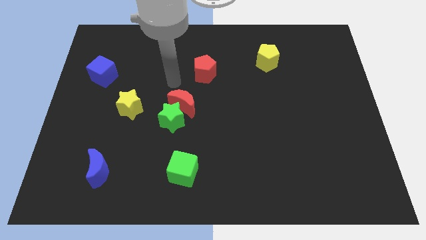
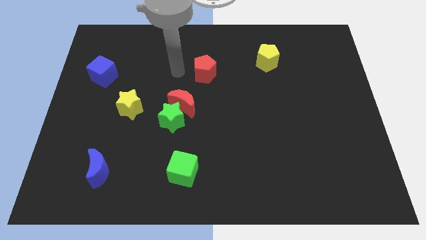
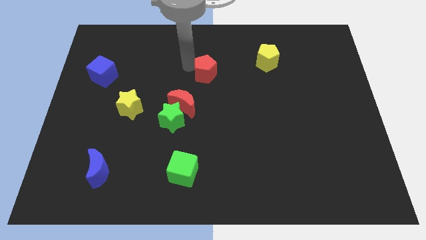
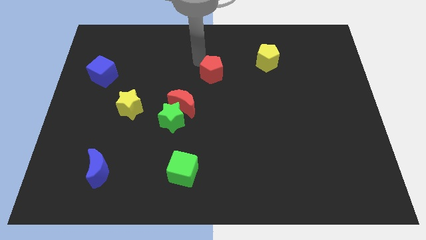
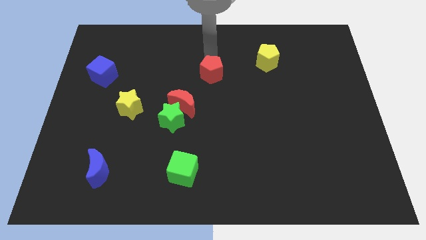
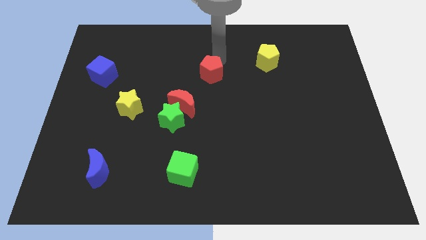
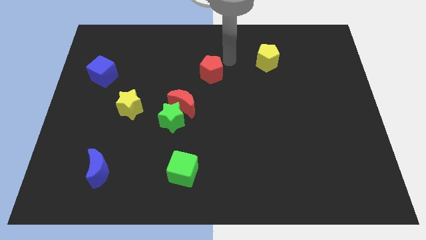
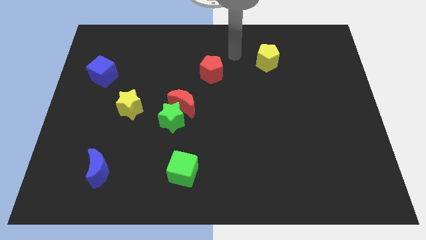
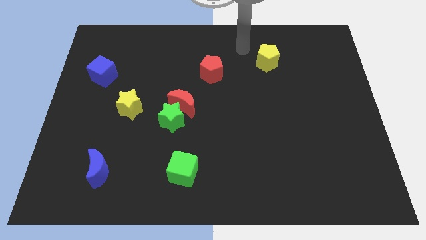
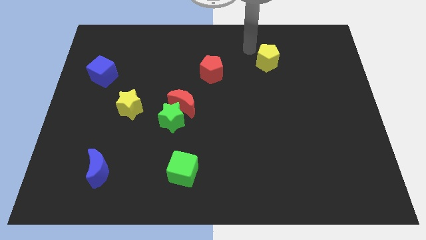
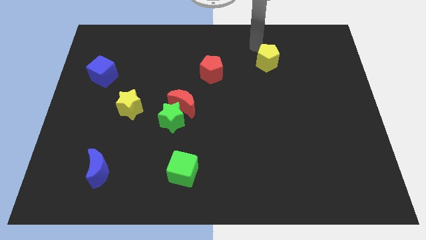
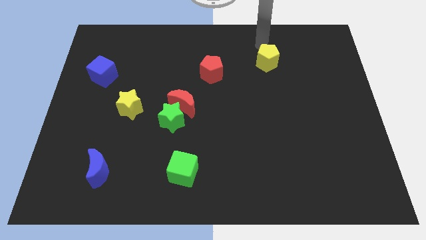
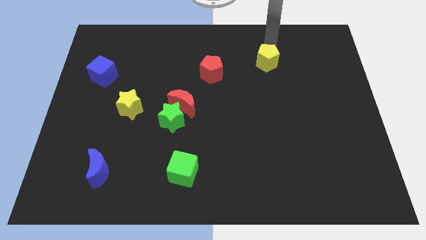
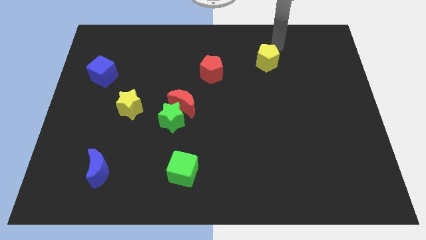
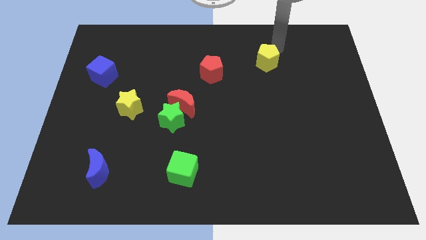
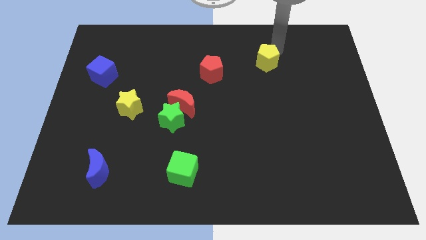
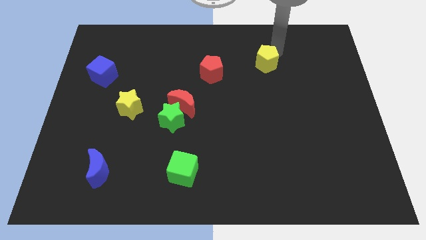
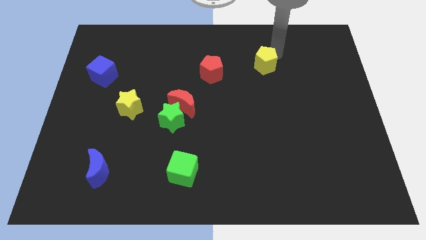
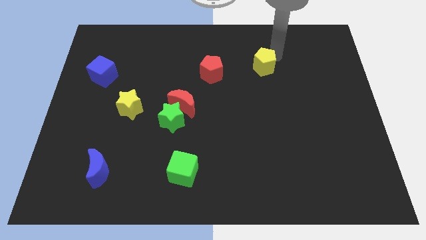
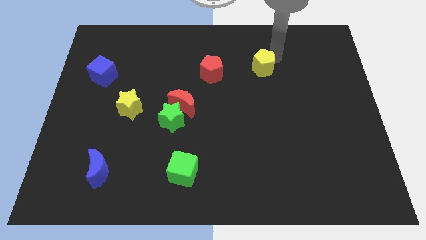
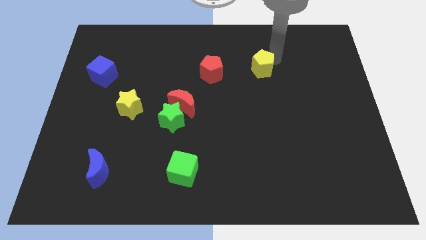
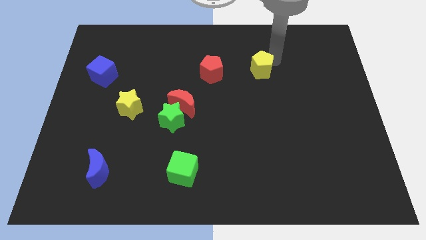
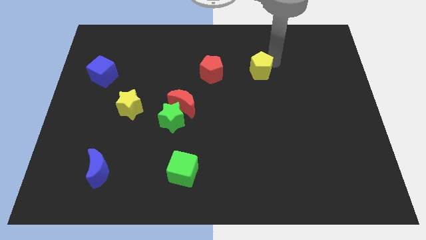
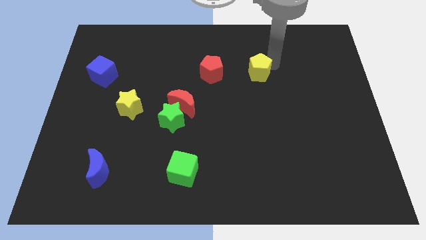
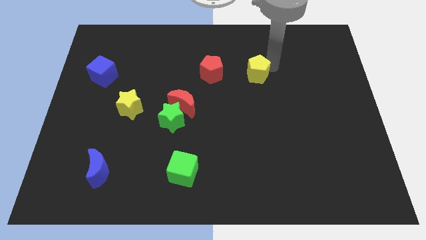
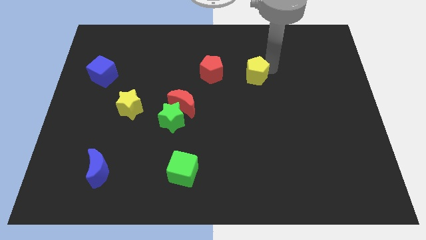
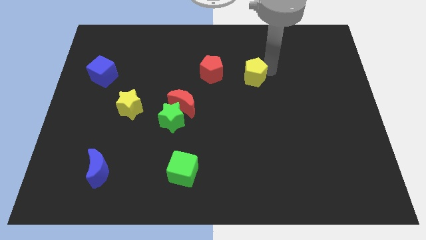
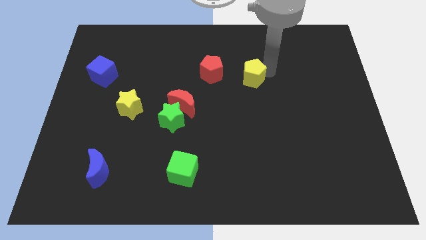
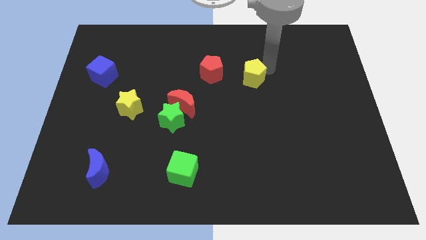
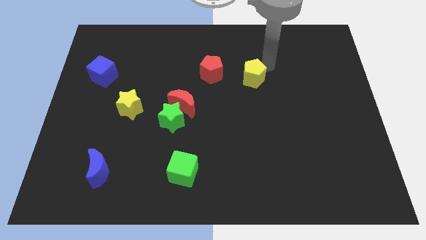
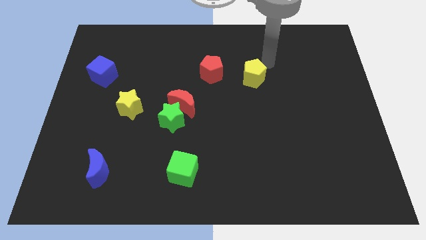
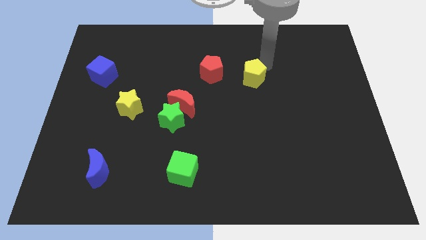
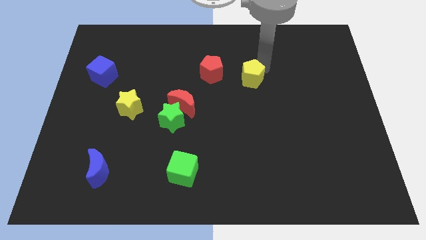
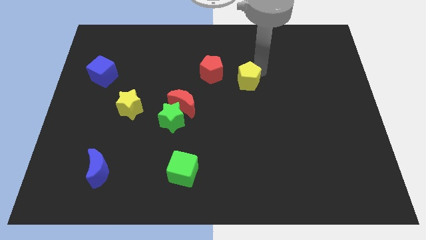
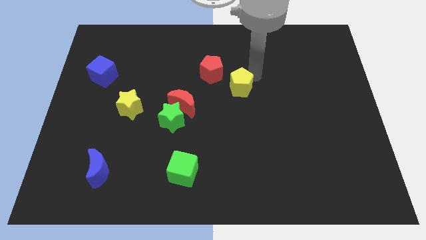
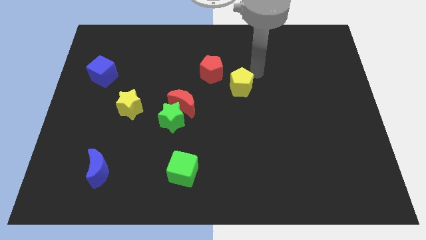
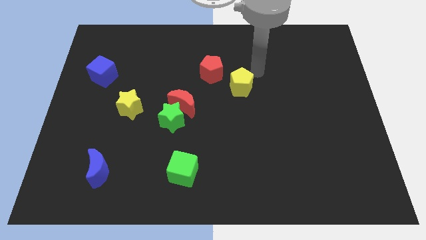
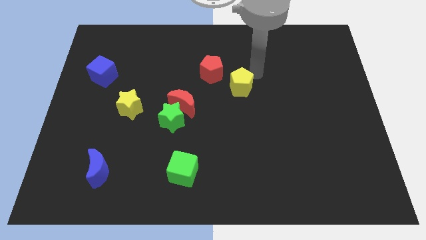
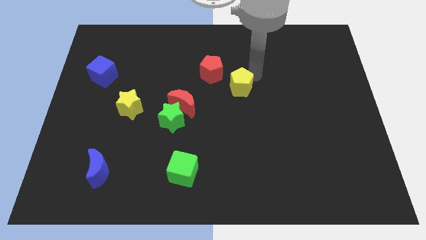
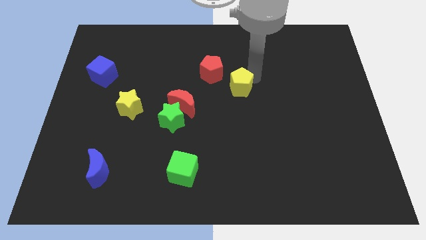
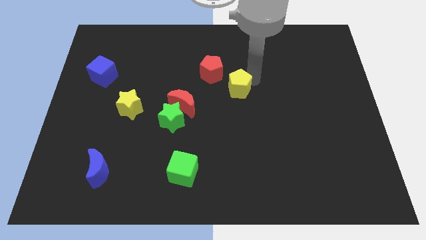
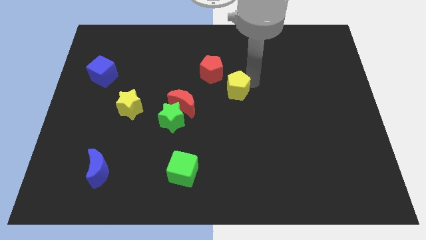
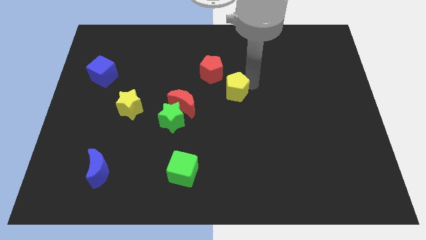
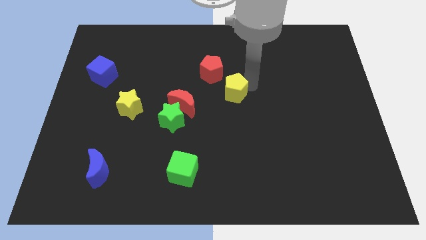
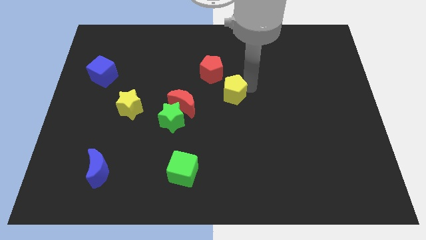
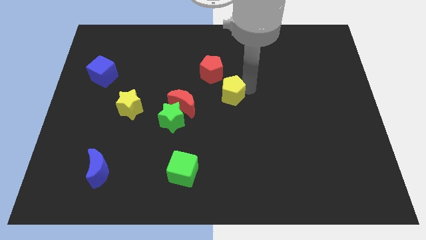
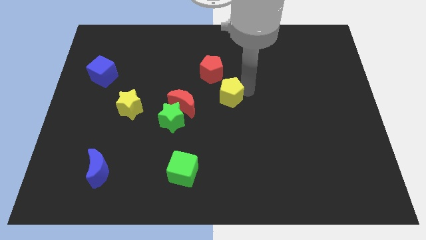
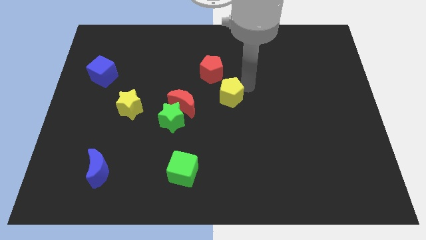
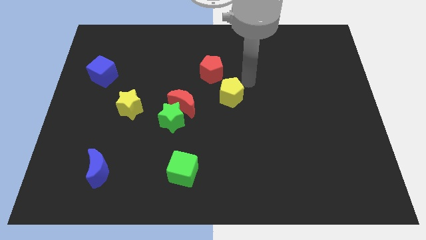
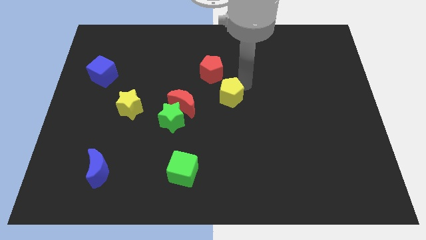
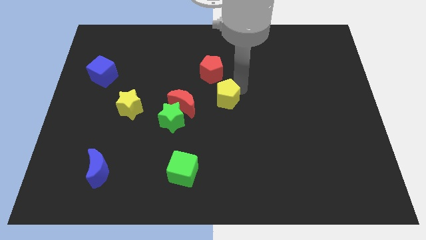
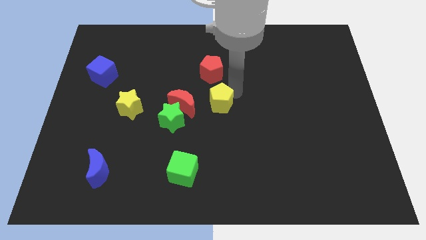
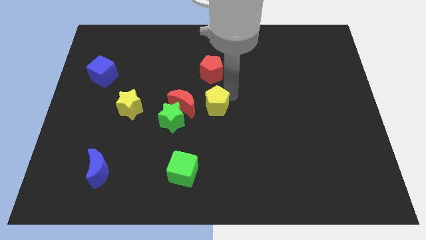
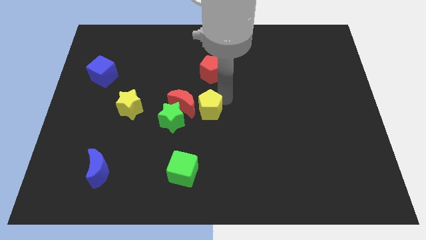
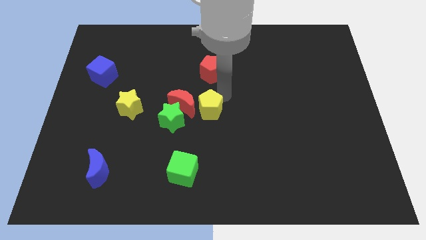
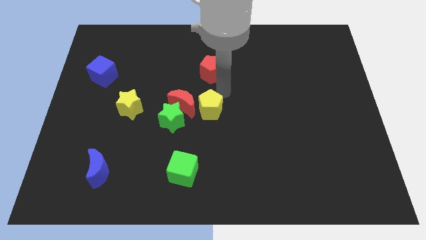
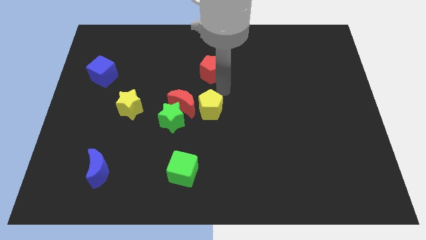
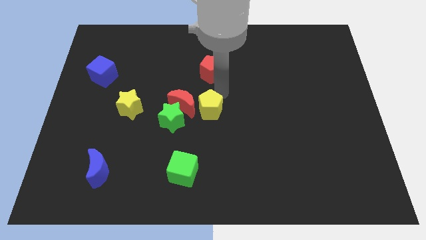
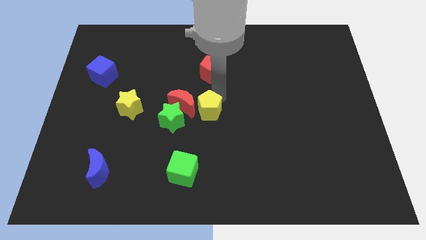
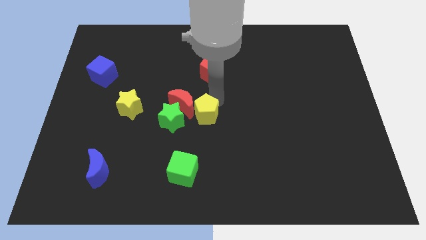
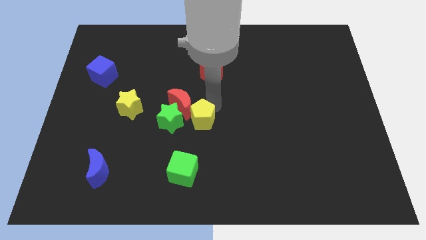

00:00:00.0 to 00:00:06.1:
push the yellow pentagon to the top side of the green cube

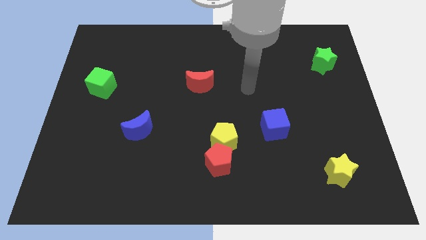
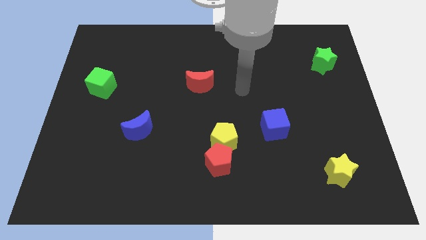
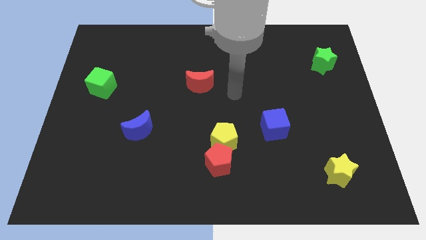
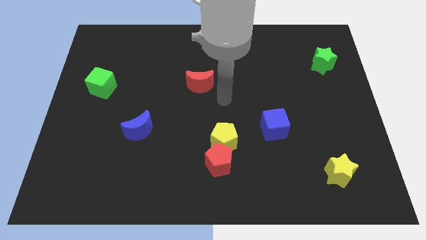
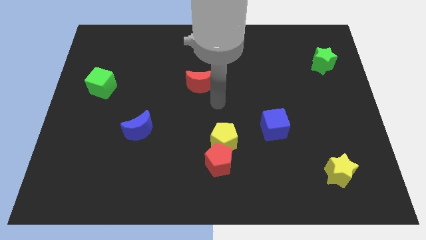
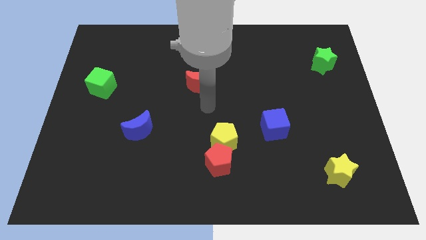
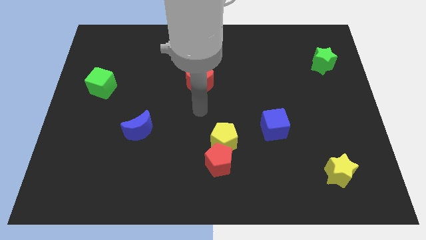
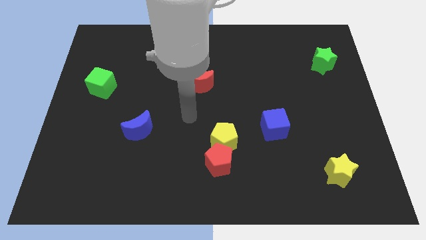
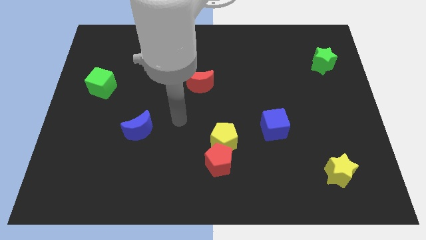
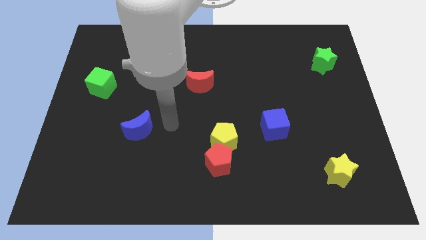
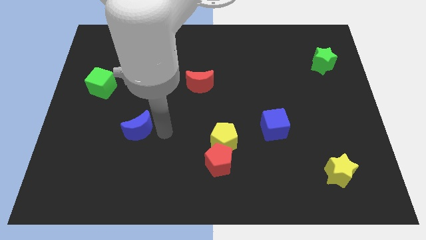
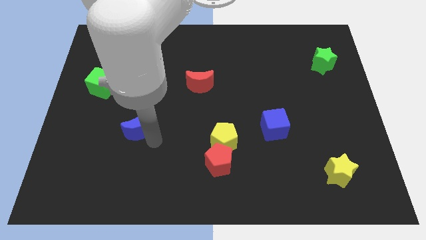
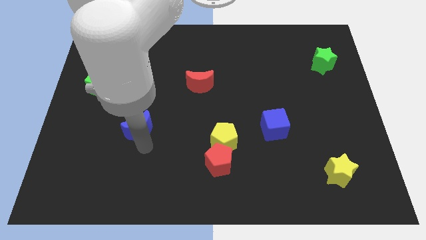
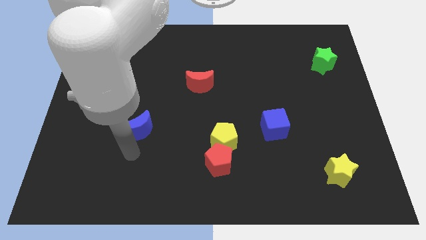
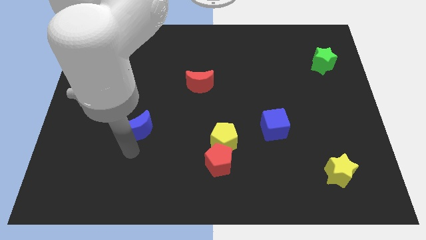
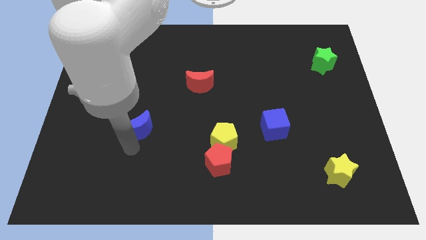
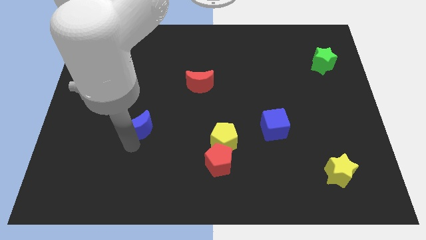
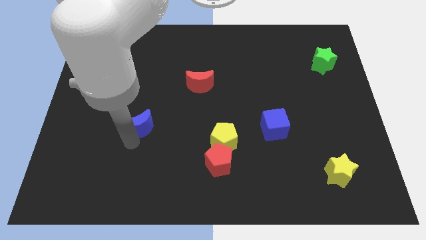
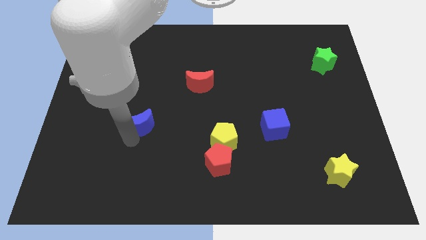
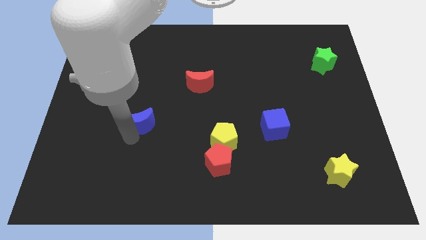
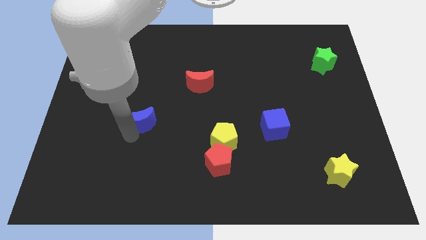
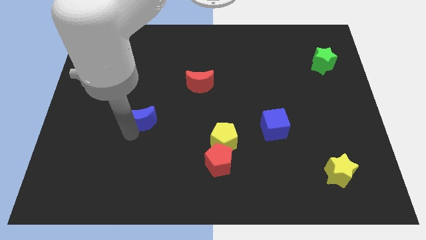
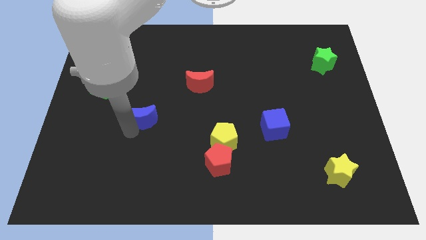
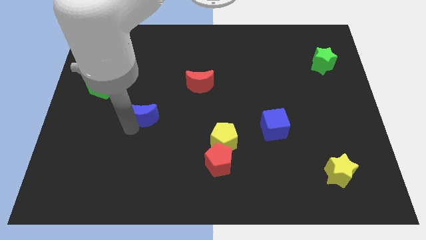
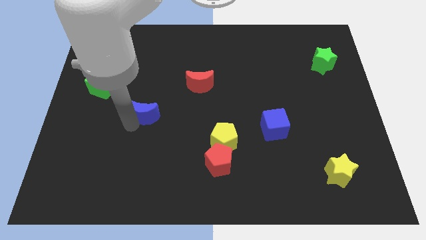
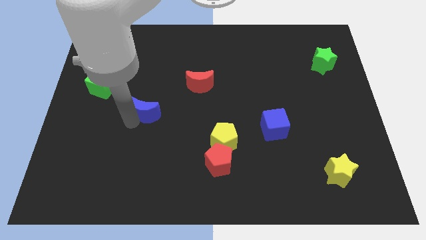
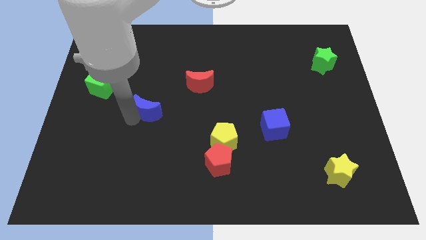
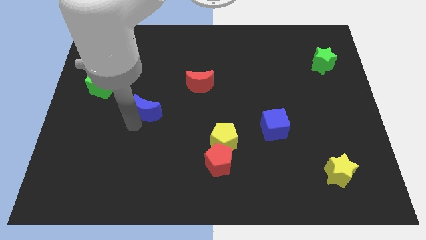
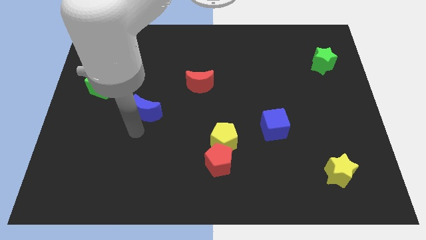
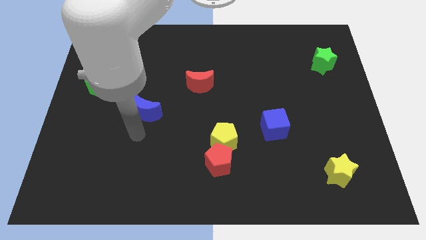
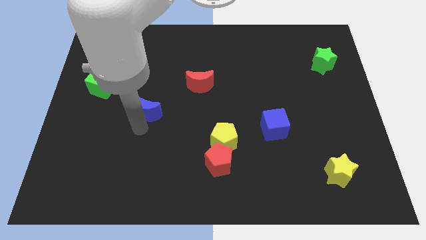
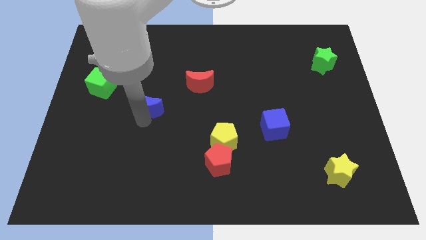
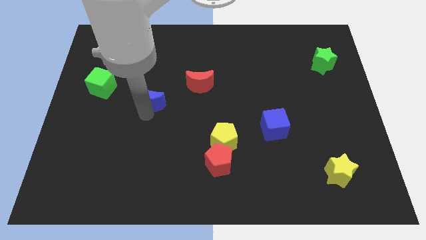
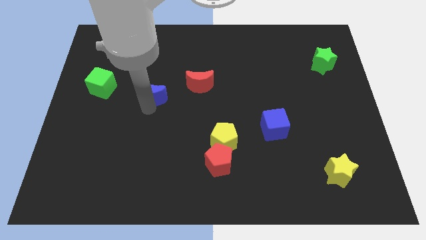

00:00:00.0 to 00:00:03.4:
slide the blue moon just left of the red moon
